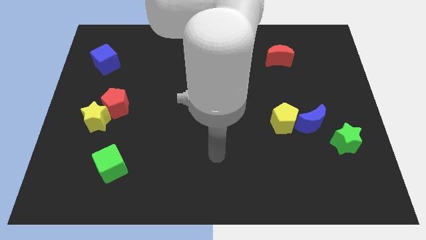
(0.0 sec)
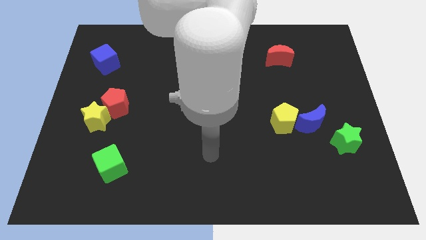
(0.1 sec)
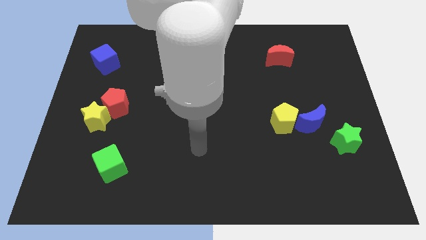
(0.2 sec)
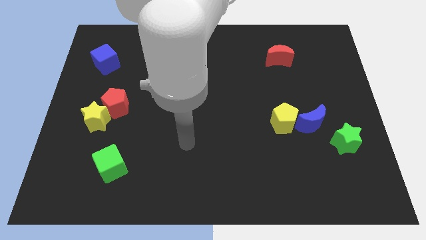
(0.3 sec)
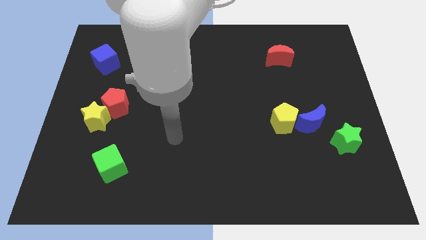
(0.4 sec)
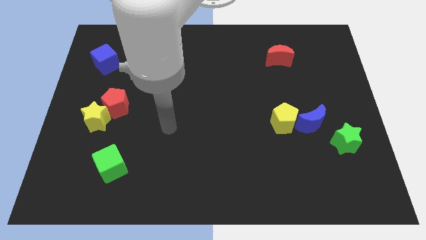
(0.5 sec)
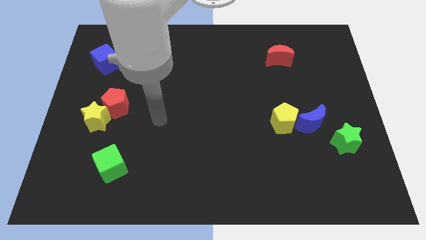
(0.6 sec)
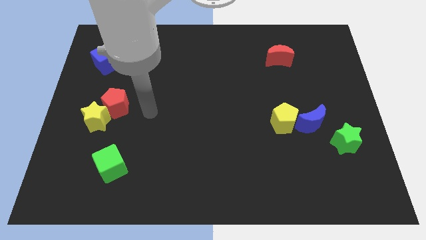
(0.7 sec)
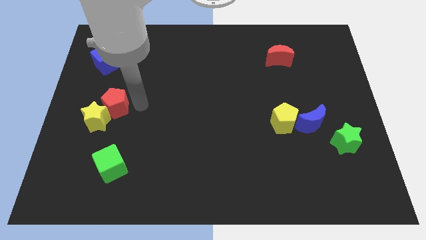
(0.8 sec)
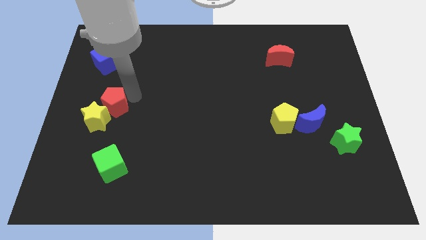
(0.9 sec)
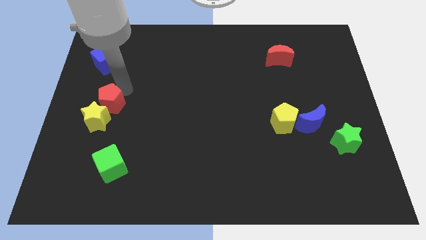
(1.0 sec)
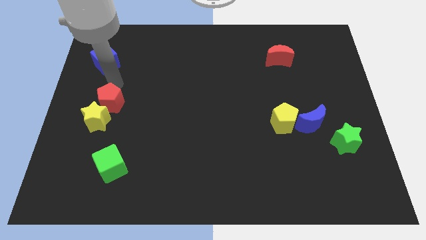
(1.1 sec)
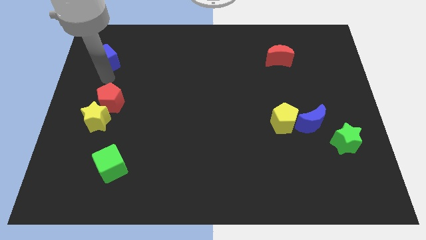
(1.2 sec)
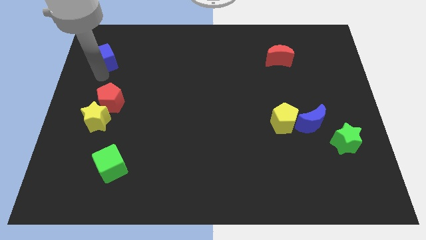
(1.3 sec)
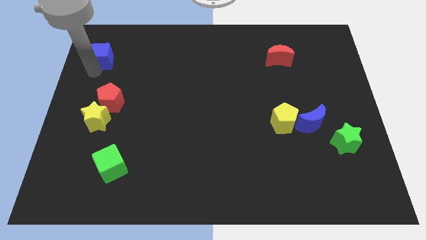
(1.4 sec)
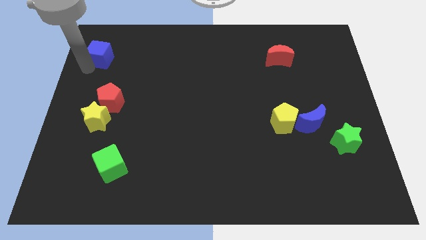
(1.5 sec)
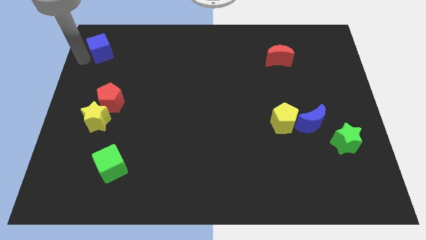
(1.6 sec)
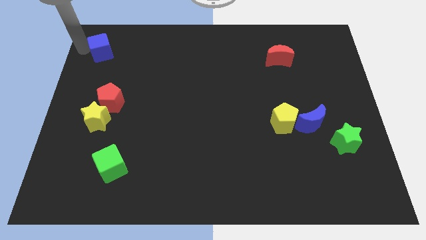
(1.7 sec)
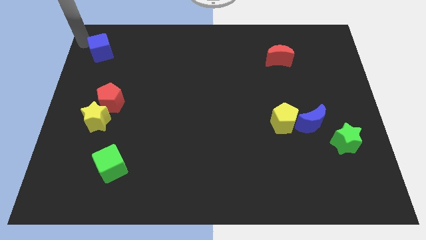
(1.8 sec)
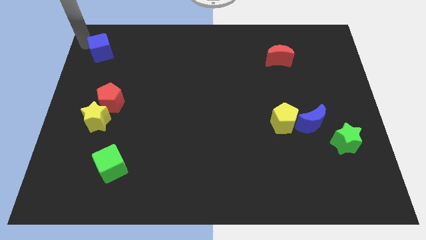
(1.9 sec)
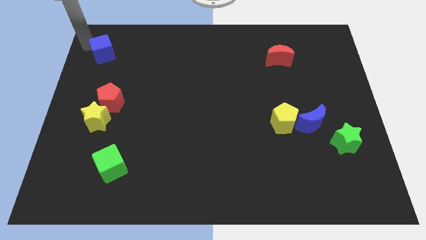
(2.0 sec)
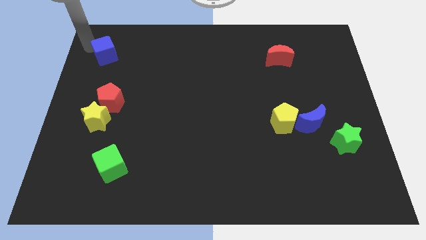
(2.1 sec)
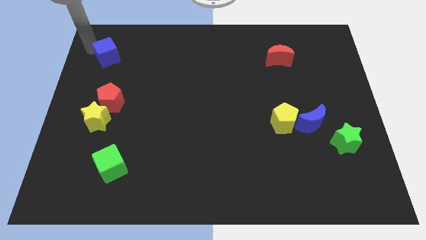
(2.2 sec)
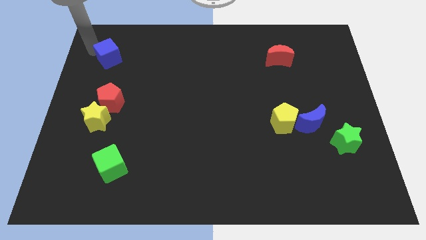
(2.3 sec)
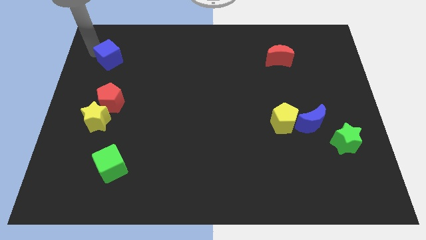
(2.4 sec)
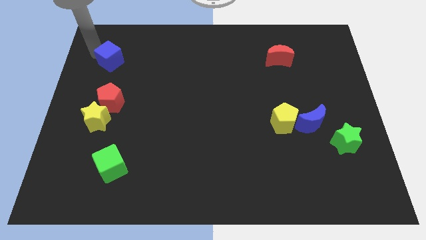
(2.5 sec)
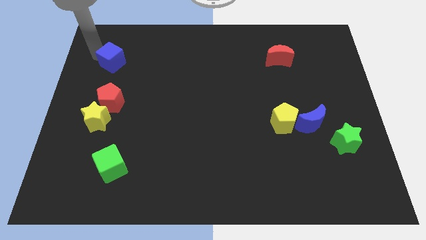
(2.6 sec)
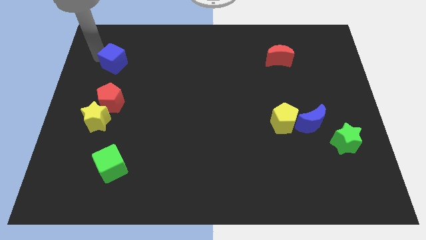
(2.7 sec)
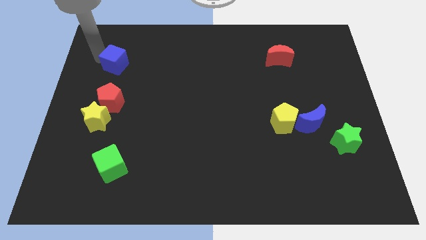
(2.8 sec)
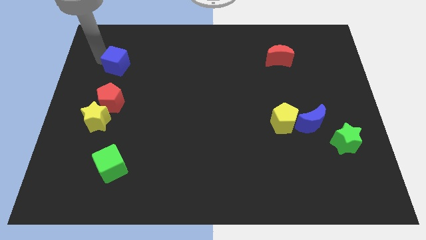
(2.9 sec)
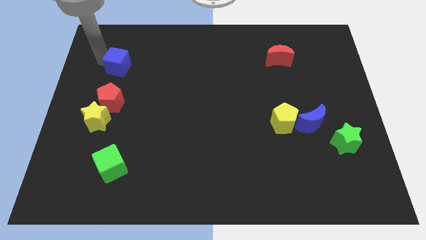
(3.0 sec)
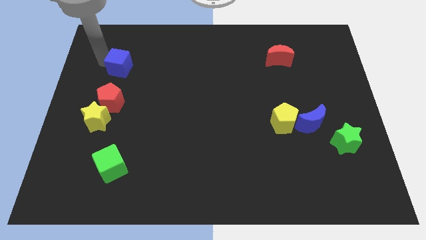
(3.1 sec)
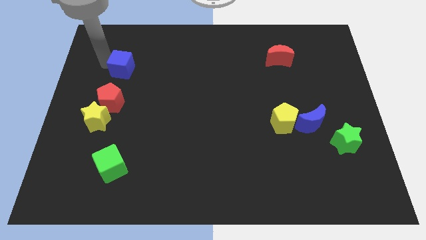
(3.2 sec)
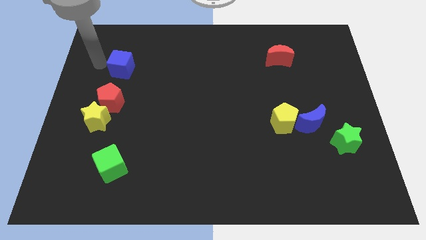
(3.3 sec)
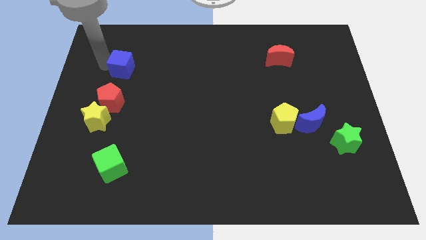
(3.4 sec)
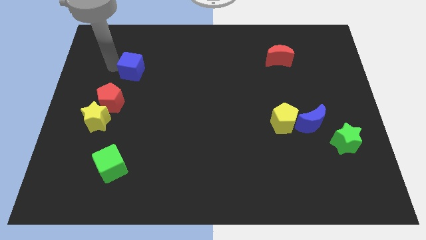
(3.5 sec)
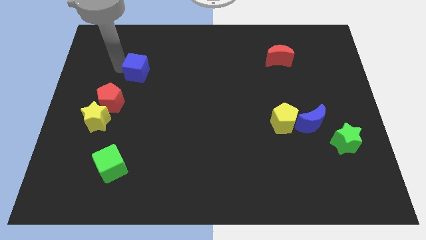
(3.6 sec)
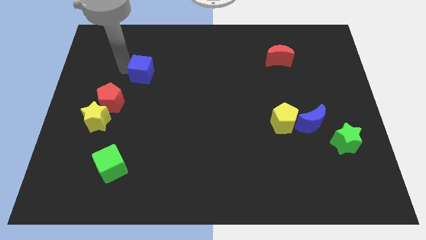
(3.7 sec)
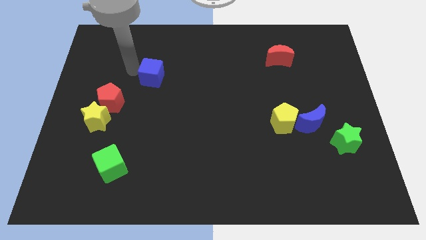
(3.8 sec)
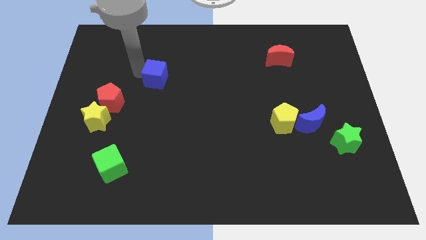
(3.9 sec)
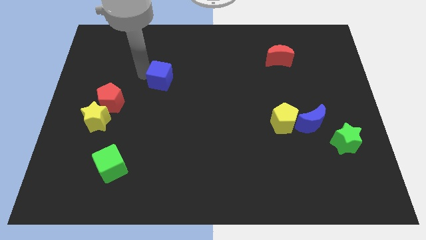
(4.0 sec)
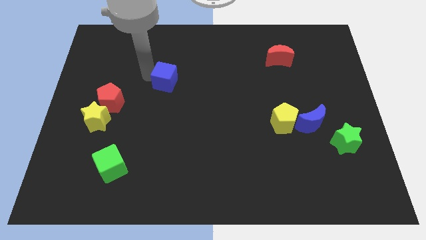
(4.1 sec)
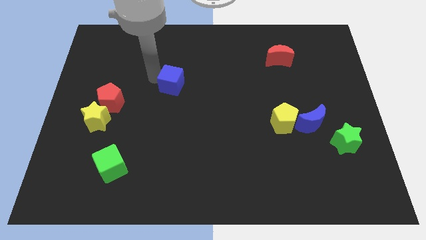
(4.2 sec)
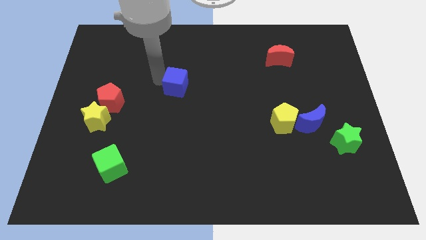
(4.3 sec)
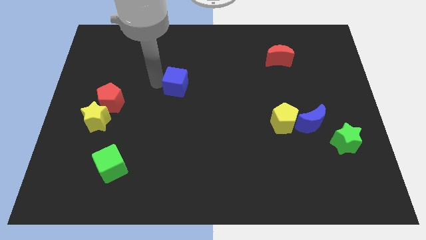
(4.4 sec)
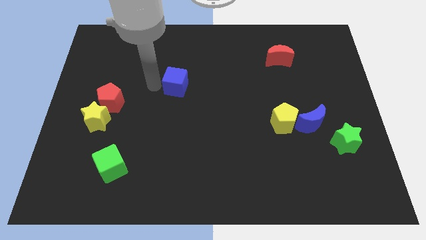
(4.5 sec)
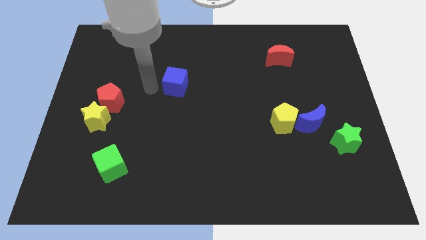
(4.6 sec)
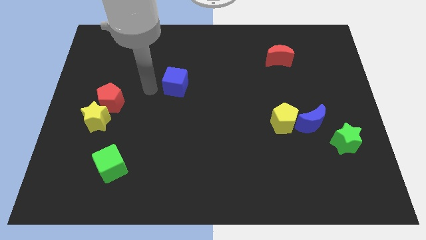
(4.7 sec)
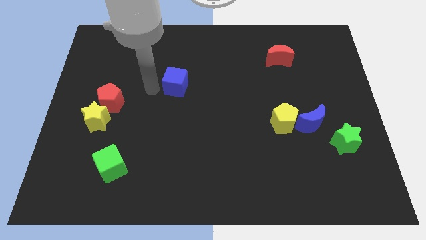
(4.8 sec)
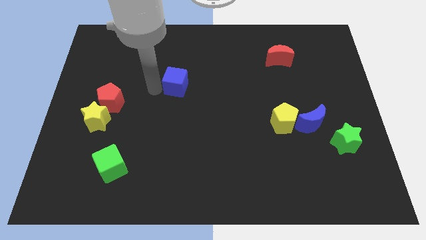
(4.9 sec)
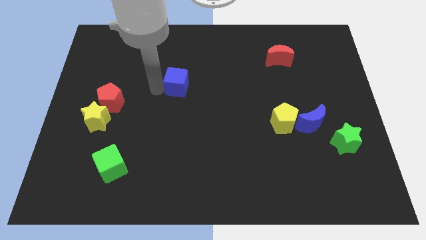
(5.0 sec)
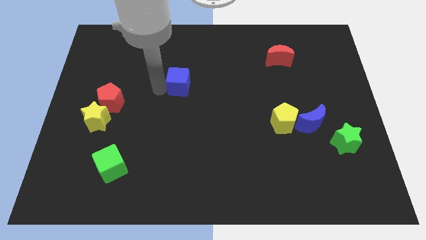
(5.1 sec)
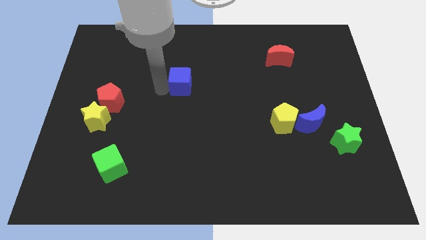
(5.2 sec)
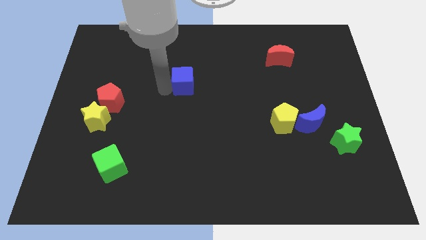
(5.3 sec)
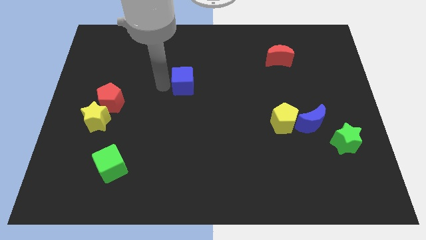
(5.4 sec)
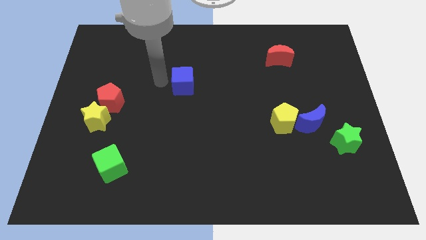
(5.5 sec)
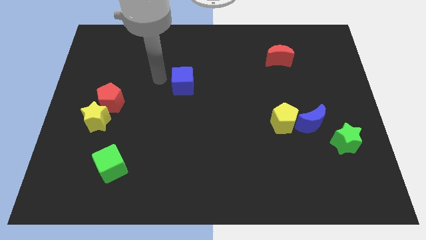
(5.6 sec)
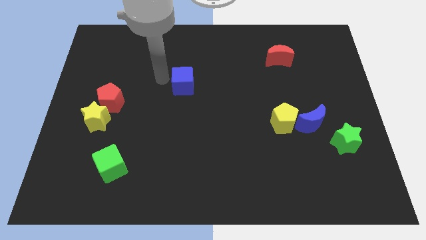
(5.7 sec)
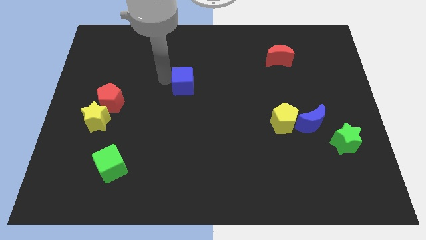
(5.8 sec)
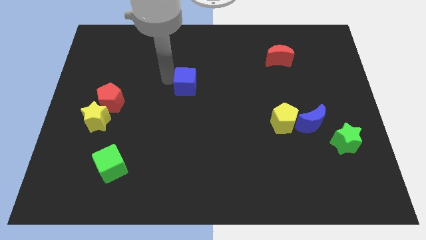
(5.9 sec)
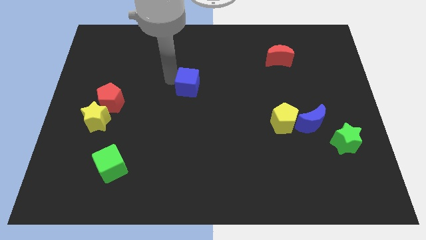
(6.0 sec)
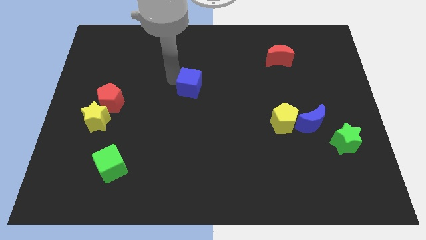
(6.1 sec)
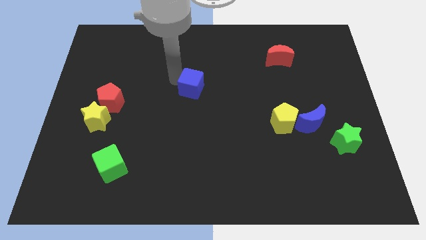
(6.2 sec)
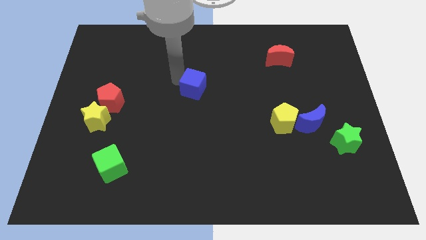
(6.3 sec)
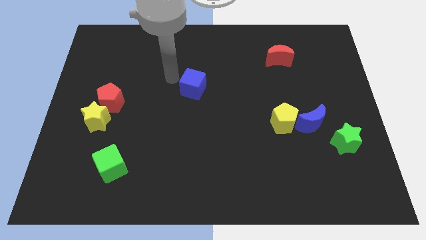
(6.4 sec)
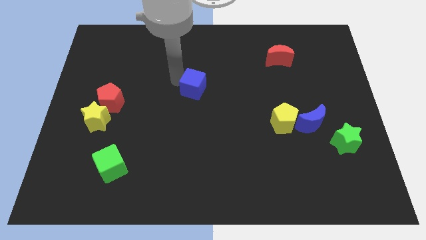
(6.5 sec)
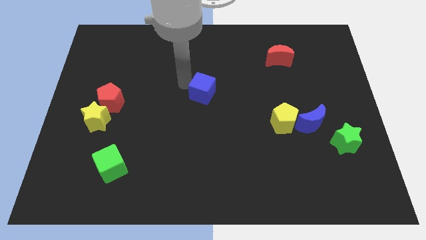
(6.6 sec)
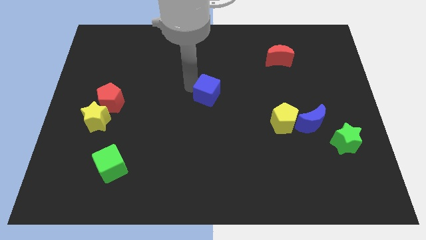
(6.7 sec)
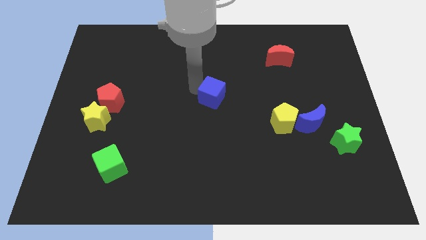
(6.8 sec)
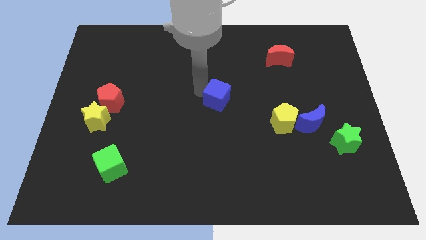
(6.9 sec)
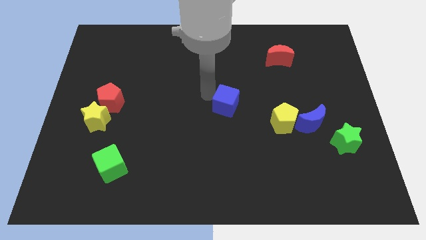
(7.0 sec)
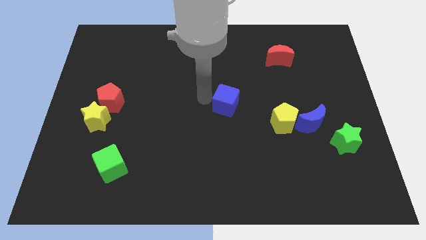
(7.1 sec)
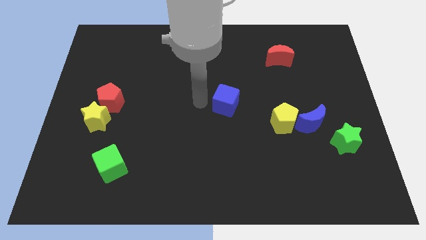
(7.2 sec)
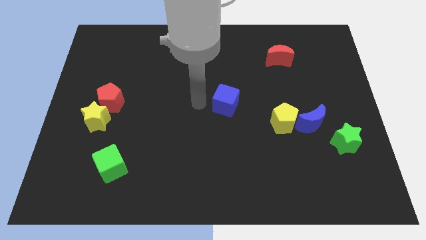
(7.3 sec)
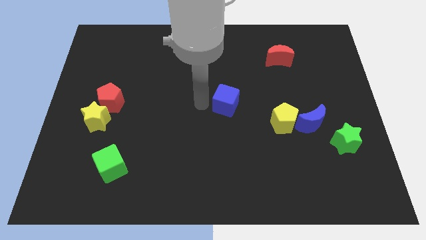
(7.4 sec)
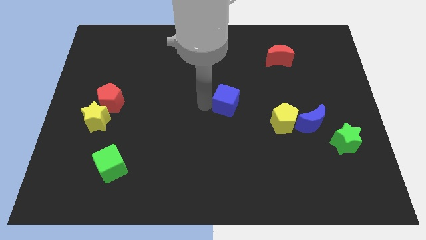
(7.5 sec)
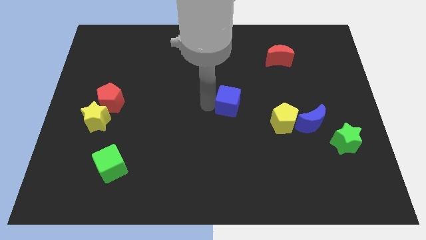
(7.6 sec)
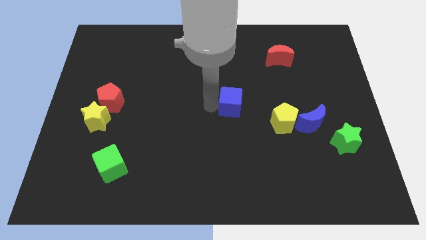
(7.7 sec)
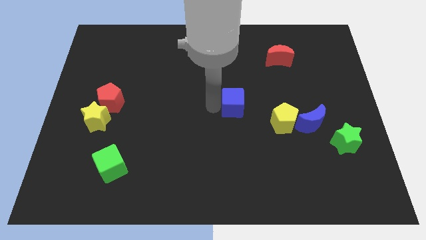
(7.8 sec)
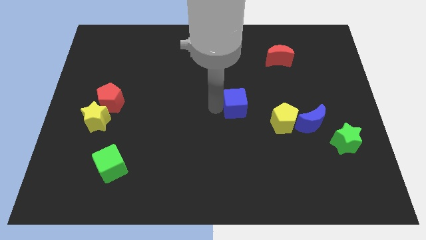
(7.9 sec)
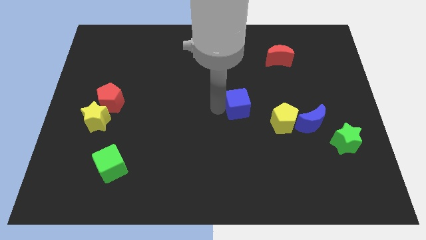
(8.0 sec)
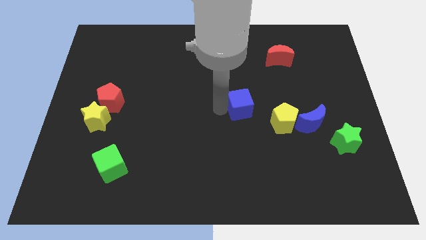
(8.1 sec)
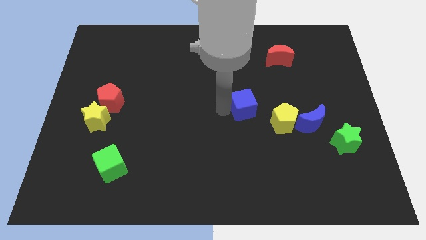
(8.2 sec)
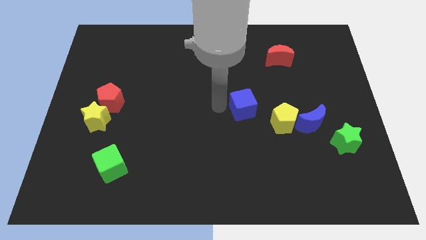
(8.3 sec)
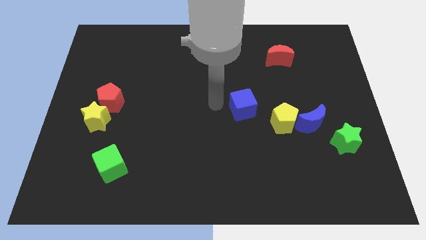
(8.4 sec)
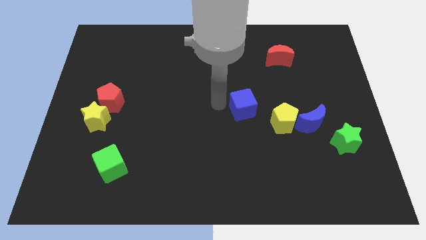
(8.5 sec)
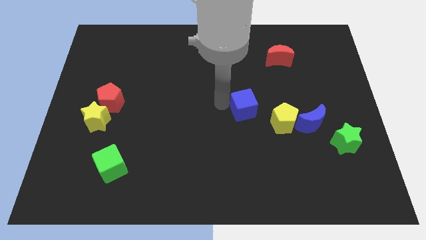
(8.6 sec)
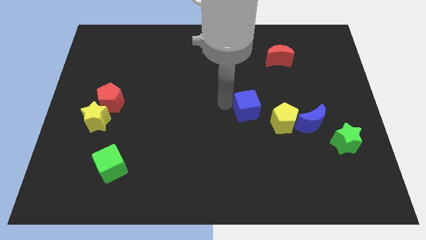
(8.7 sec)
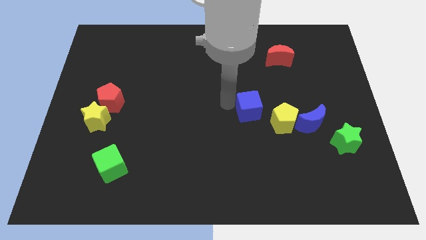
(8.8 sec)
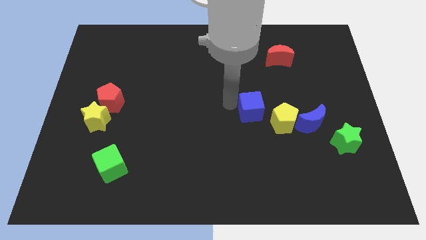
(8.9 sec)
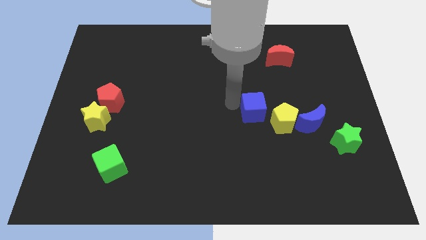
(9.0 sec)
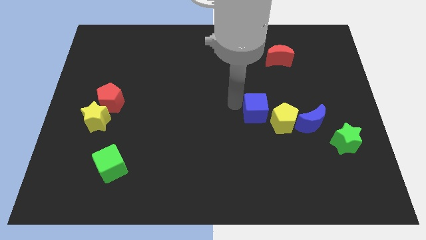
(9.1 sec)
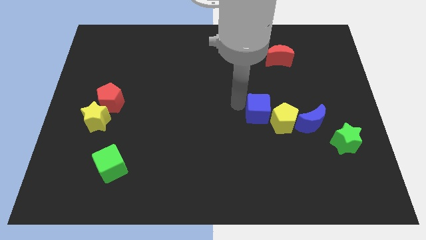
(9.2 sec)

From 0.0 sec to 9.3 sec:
put the blue cube next to the yellow pentagon
